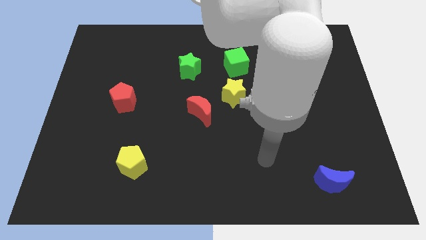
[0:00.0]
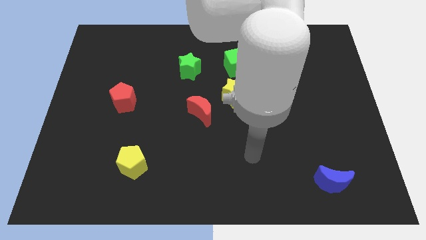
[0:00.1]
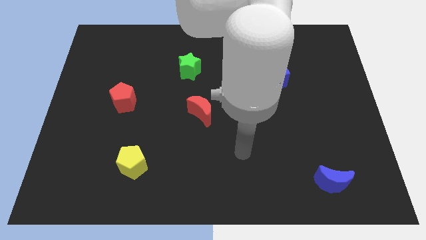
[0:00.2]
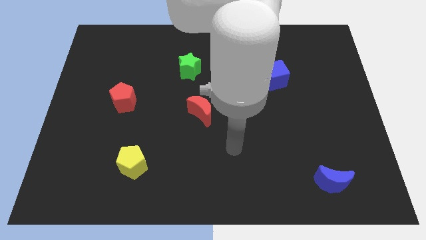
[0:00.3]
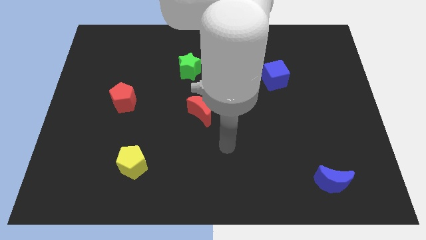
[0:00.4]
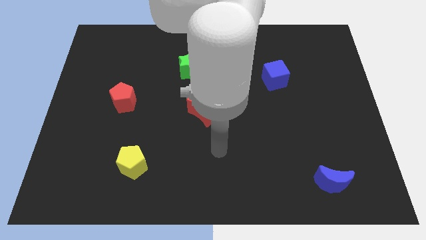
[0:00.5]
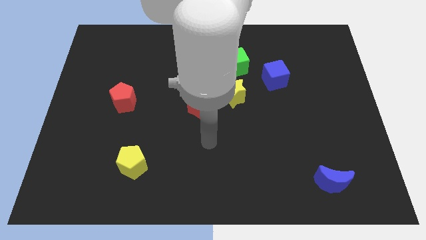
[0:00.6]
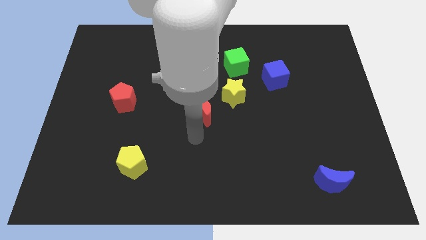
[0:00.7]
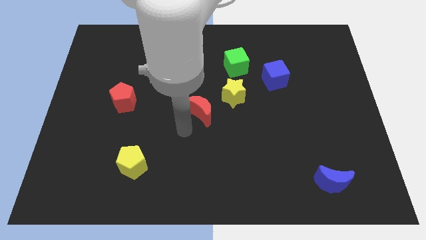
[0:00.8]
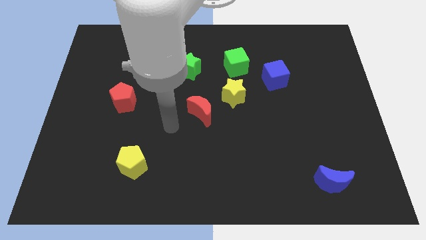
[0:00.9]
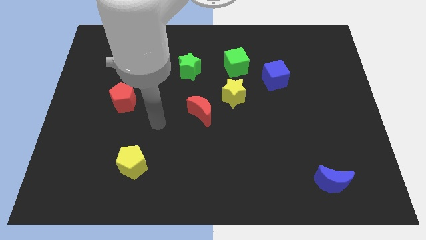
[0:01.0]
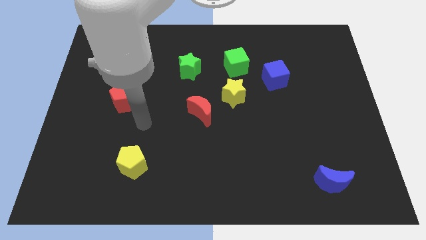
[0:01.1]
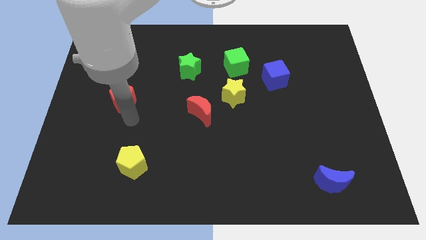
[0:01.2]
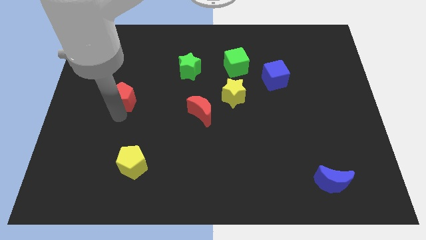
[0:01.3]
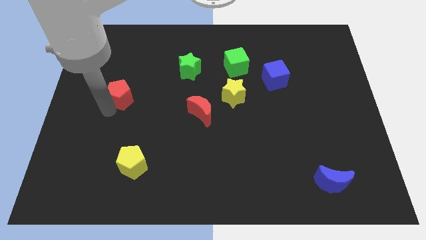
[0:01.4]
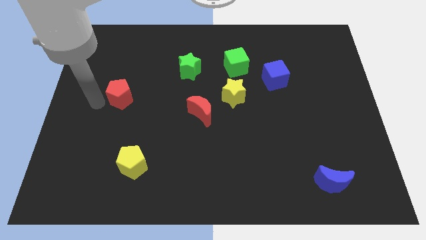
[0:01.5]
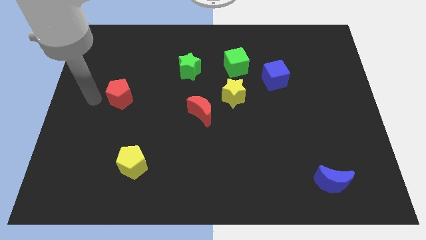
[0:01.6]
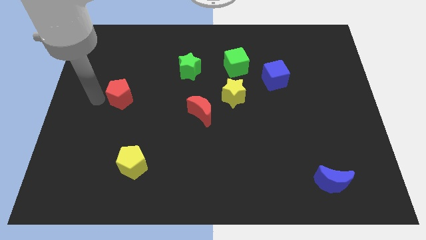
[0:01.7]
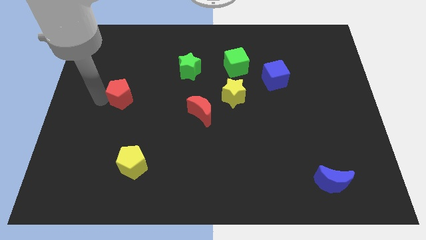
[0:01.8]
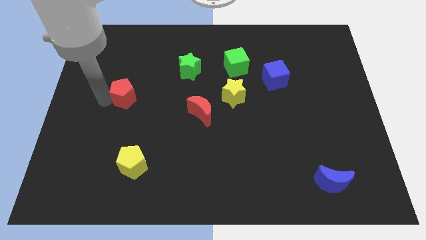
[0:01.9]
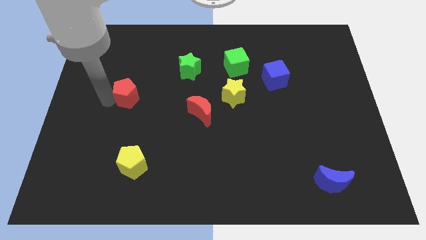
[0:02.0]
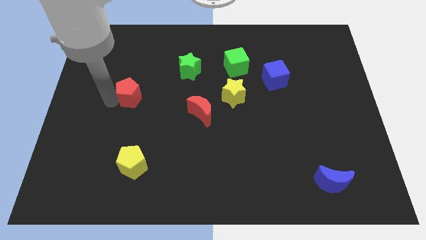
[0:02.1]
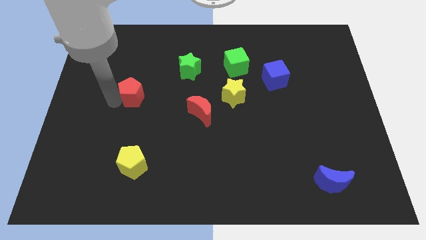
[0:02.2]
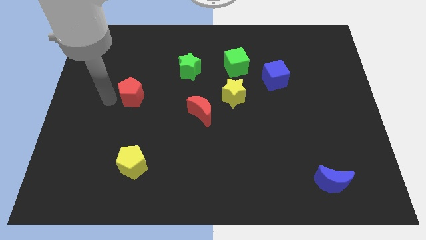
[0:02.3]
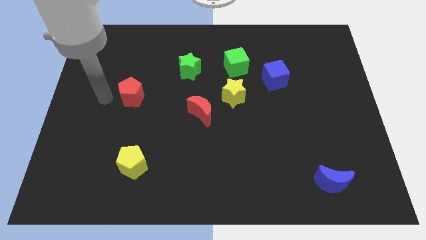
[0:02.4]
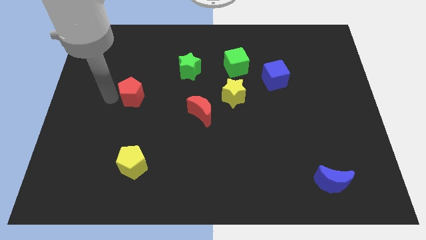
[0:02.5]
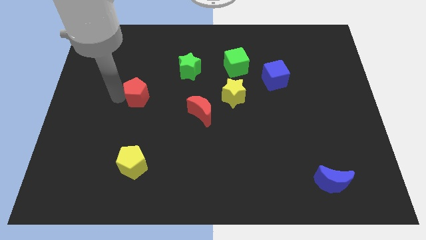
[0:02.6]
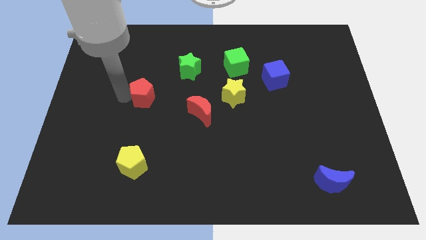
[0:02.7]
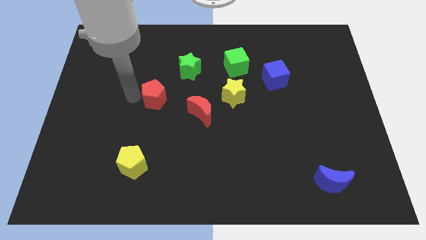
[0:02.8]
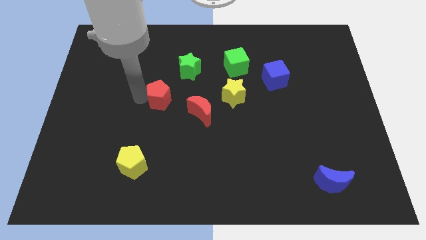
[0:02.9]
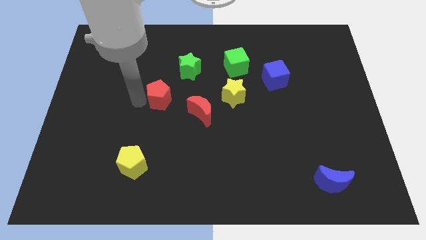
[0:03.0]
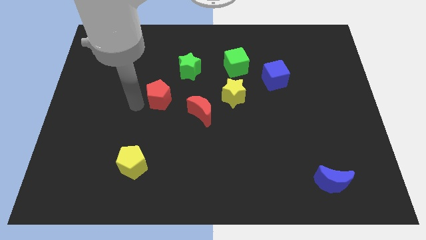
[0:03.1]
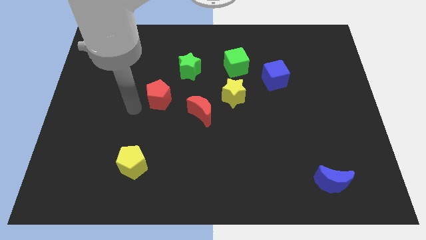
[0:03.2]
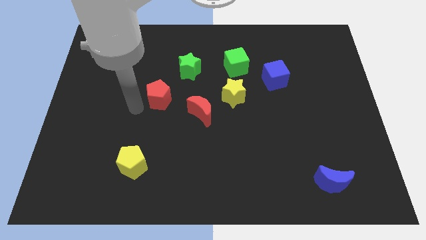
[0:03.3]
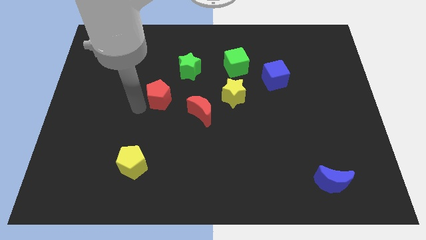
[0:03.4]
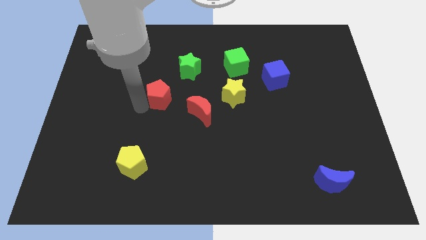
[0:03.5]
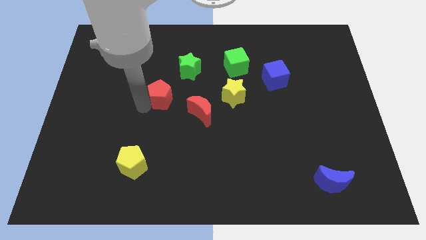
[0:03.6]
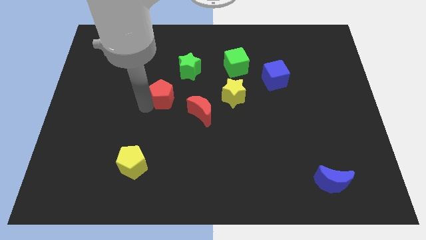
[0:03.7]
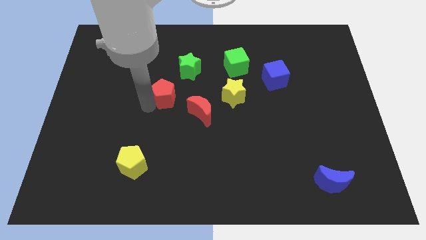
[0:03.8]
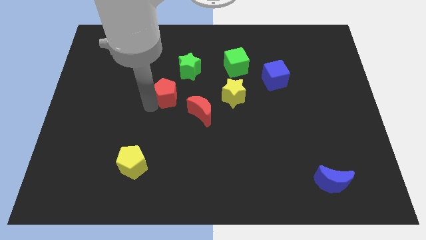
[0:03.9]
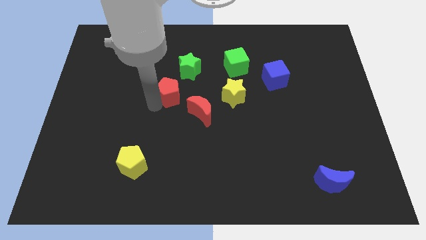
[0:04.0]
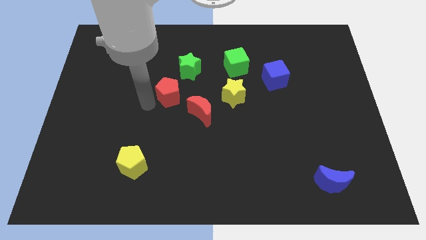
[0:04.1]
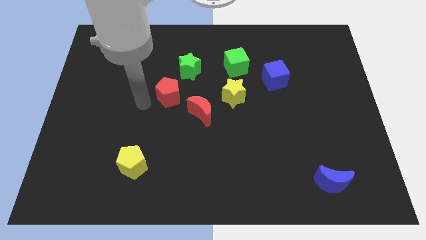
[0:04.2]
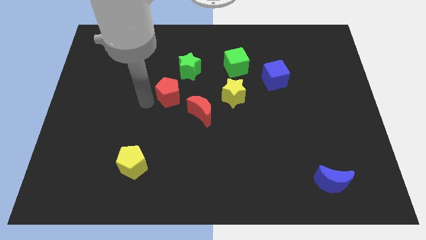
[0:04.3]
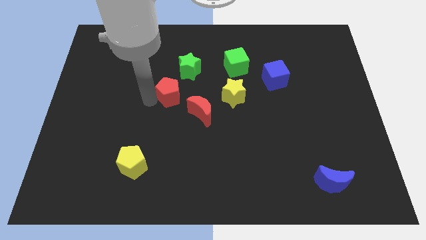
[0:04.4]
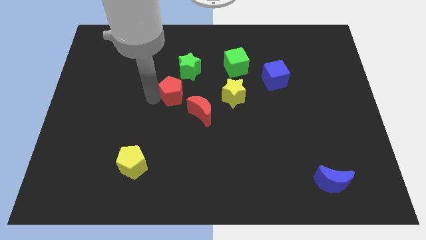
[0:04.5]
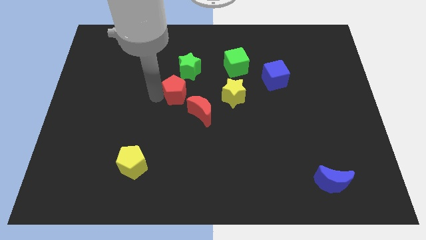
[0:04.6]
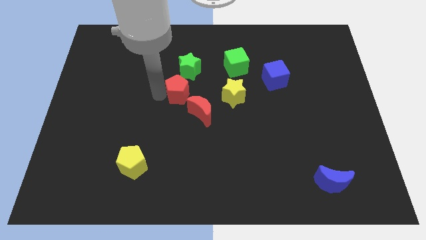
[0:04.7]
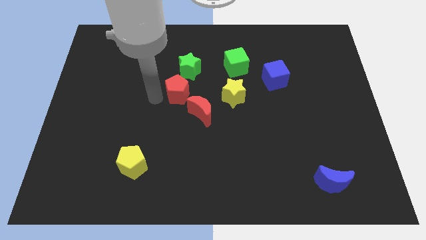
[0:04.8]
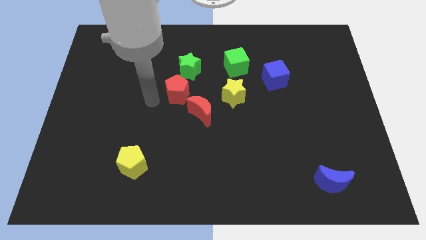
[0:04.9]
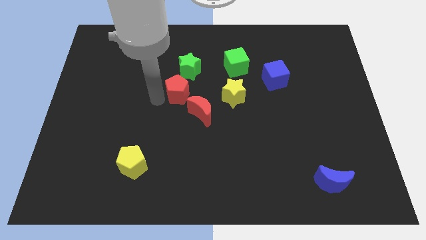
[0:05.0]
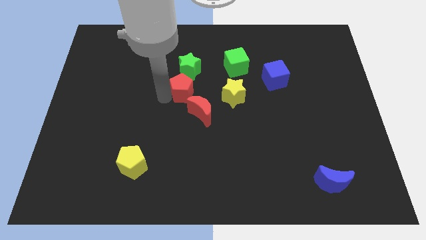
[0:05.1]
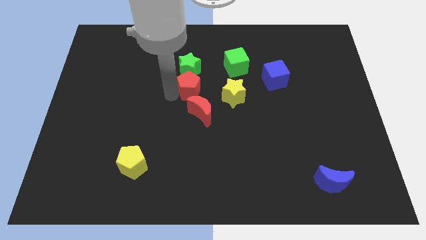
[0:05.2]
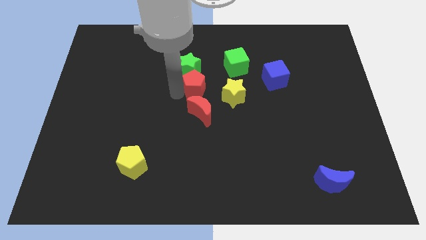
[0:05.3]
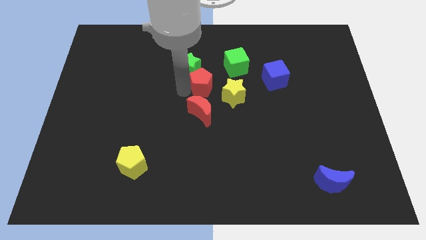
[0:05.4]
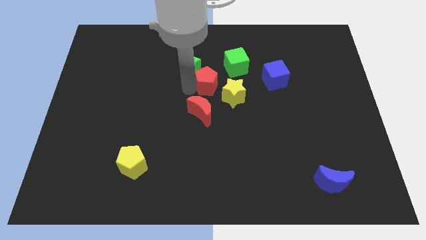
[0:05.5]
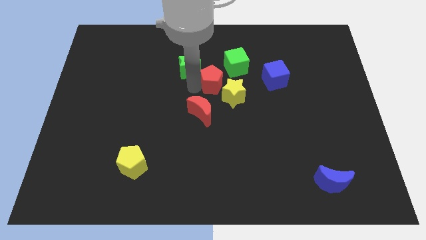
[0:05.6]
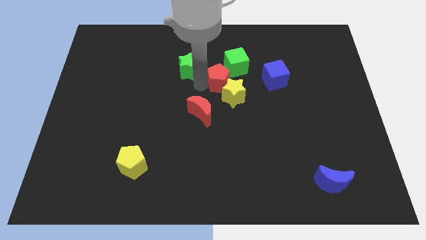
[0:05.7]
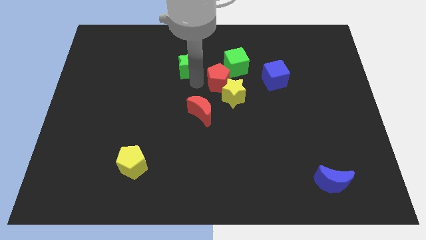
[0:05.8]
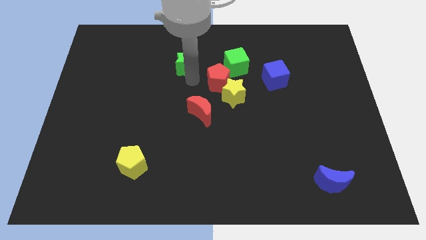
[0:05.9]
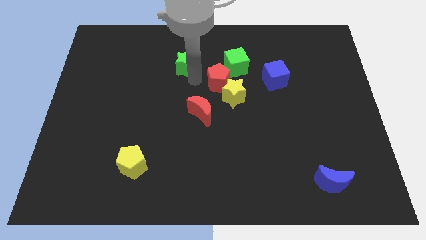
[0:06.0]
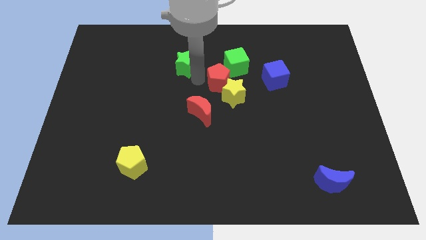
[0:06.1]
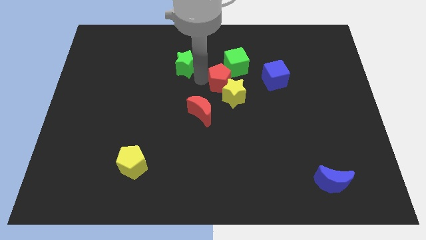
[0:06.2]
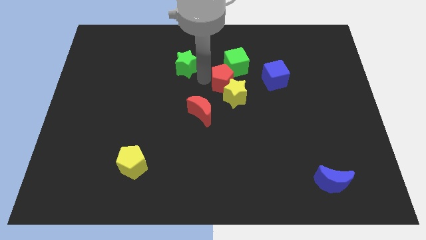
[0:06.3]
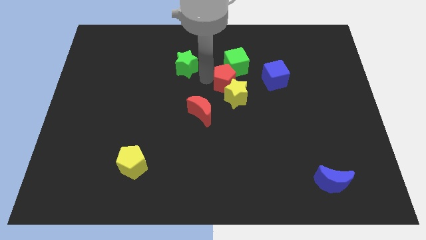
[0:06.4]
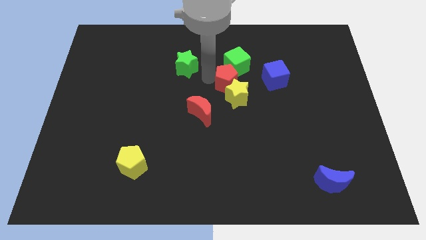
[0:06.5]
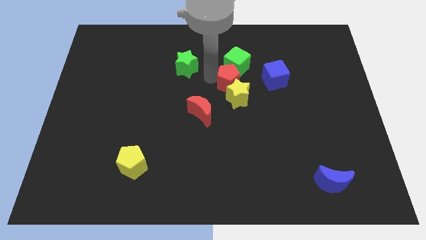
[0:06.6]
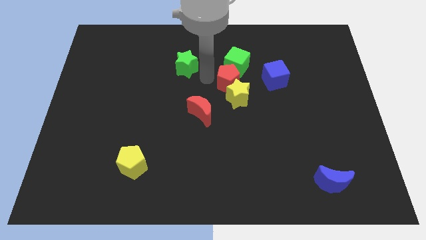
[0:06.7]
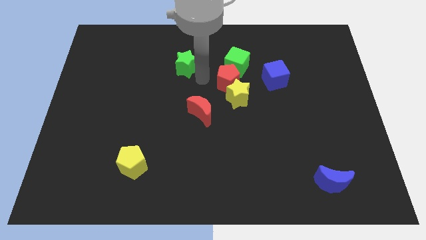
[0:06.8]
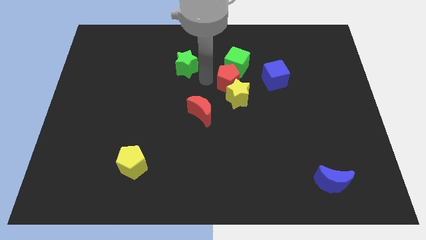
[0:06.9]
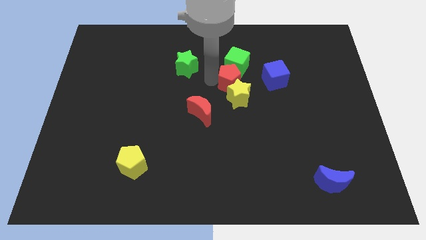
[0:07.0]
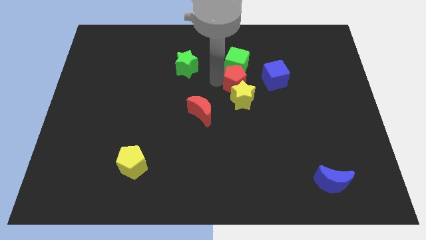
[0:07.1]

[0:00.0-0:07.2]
push the red pentagon to the bottom right of the green cube

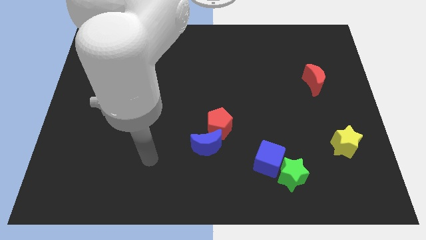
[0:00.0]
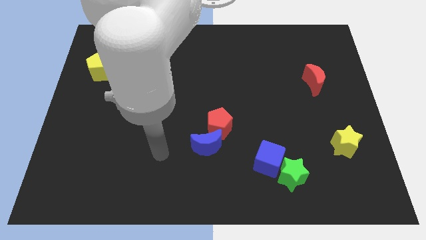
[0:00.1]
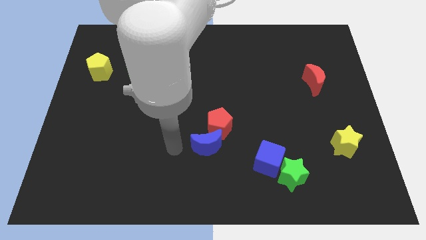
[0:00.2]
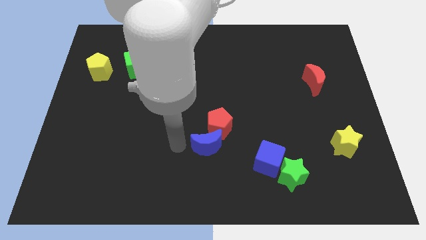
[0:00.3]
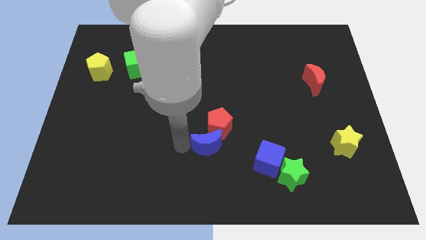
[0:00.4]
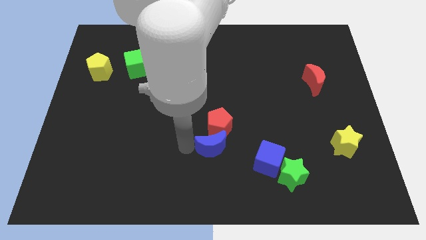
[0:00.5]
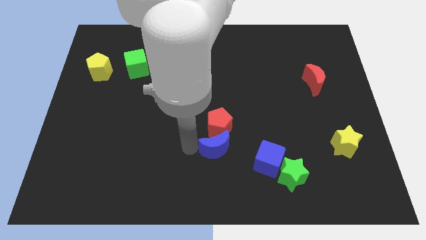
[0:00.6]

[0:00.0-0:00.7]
push the blue moon diagonally down and to the right of the red pentagon
